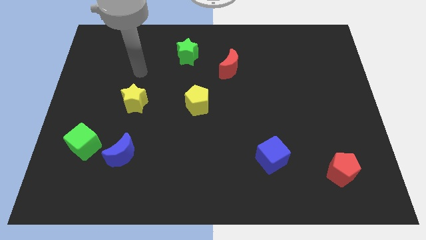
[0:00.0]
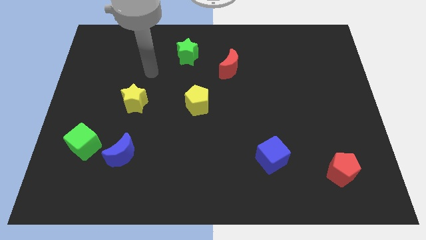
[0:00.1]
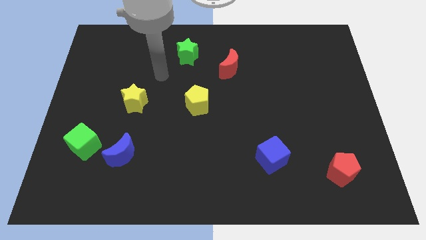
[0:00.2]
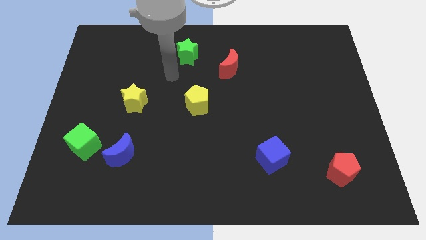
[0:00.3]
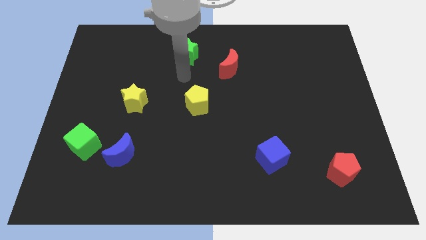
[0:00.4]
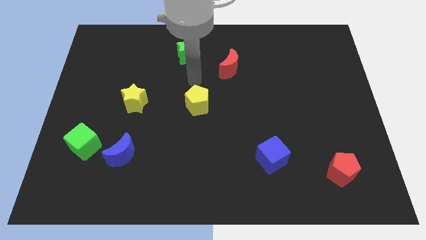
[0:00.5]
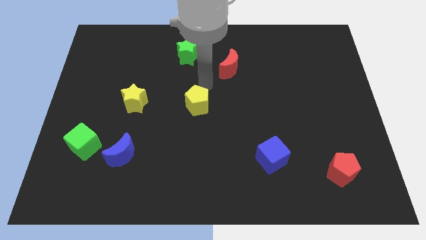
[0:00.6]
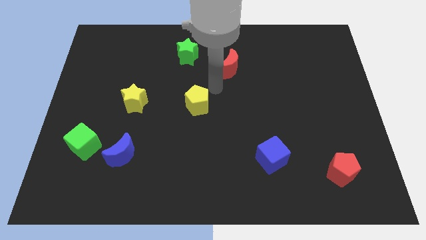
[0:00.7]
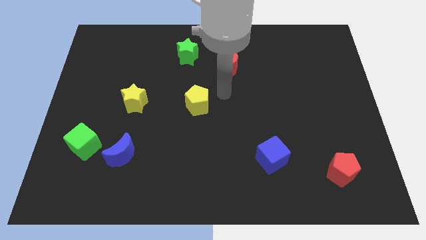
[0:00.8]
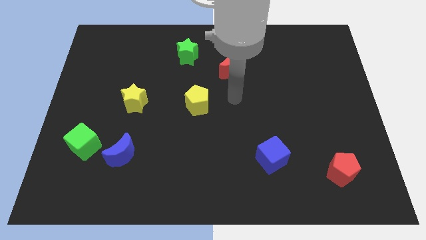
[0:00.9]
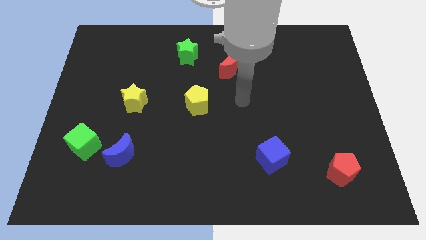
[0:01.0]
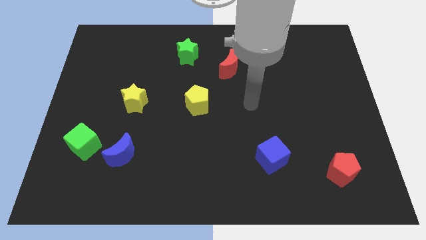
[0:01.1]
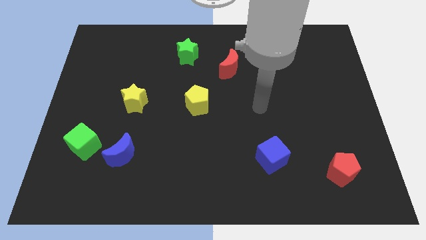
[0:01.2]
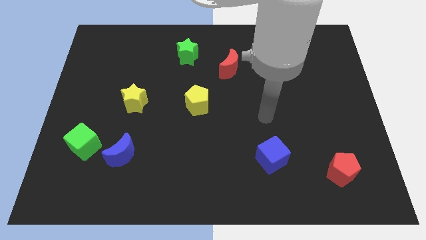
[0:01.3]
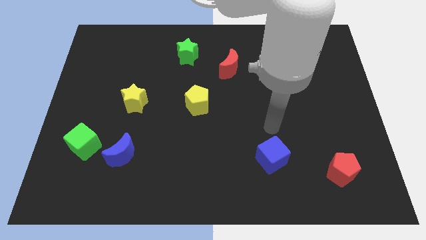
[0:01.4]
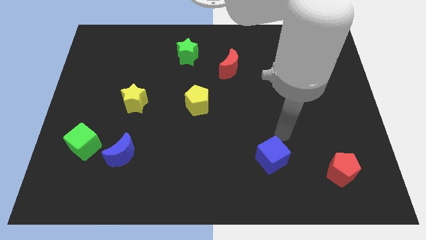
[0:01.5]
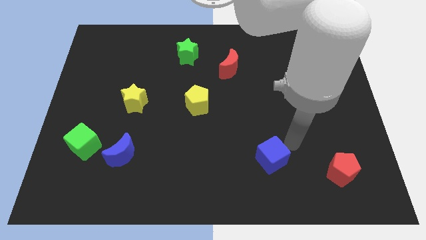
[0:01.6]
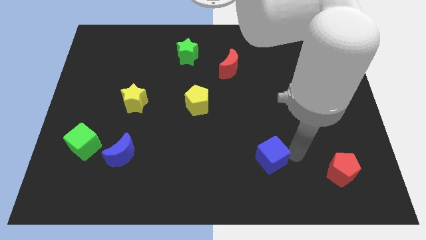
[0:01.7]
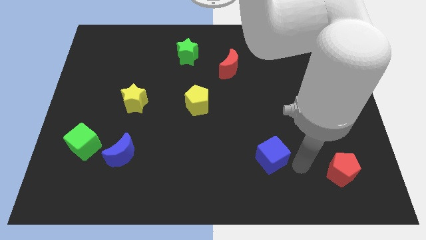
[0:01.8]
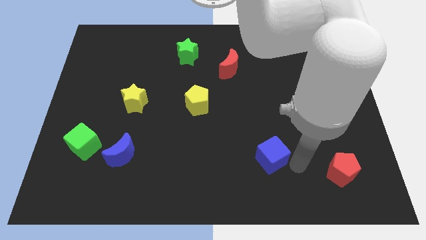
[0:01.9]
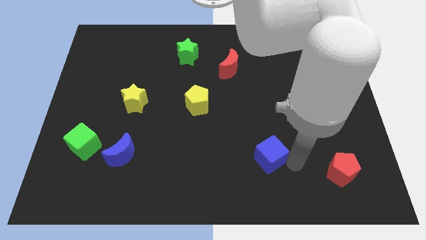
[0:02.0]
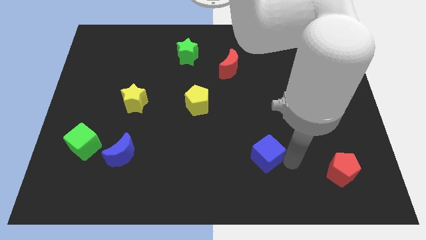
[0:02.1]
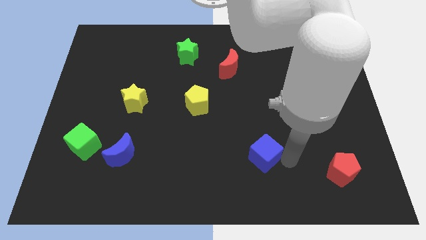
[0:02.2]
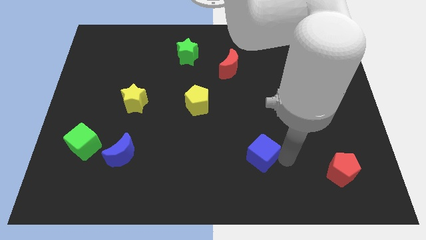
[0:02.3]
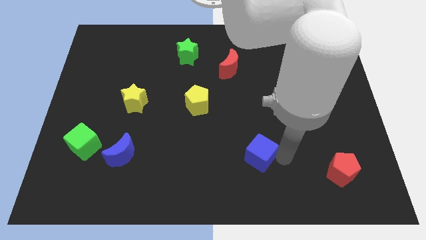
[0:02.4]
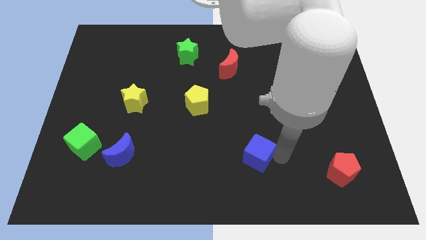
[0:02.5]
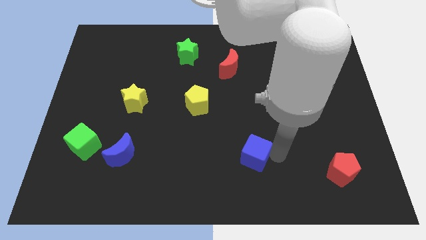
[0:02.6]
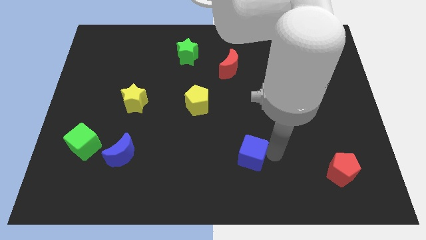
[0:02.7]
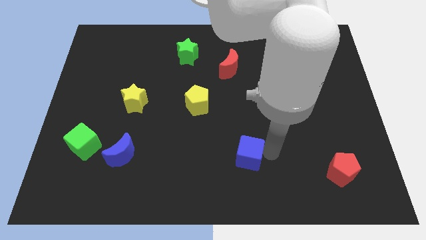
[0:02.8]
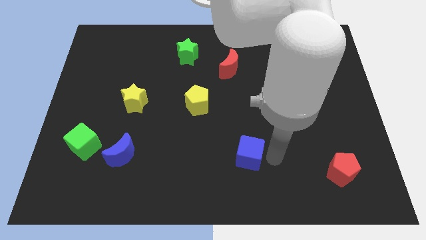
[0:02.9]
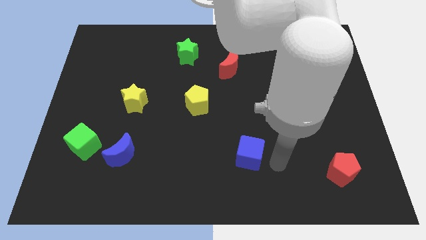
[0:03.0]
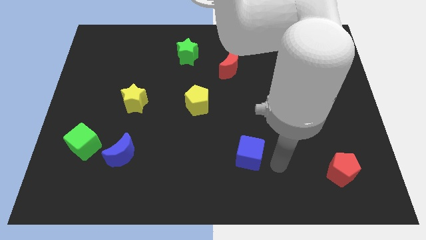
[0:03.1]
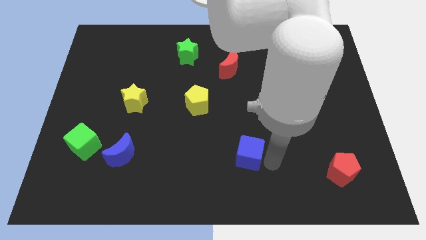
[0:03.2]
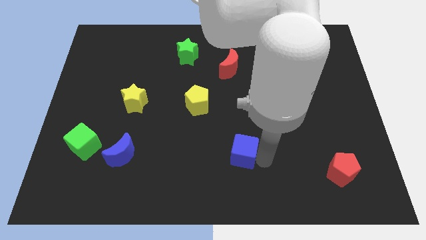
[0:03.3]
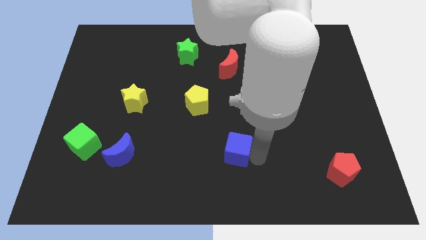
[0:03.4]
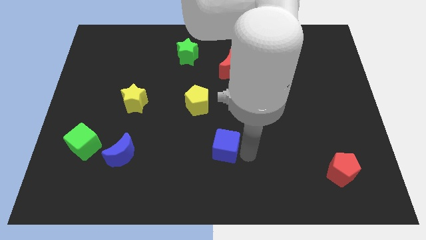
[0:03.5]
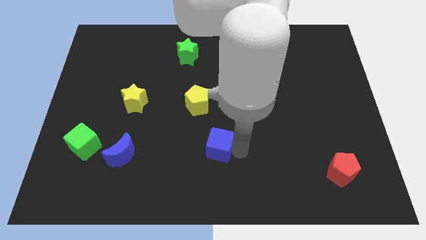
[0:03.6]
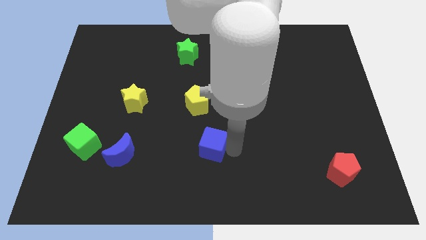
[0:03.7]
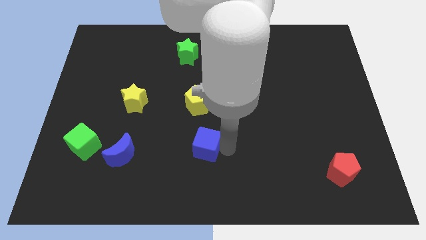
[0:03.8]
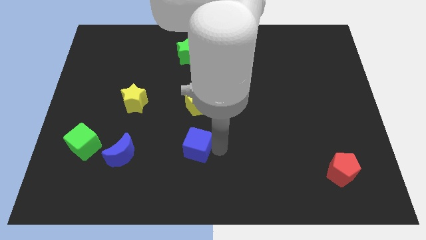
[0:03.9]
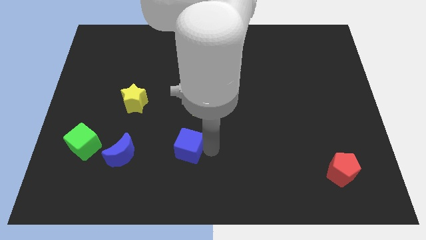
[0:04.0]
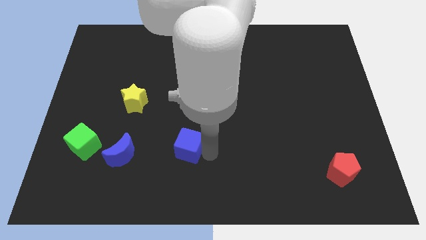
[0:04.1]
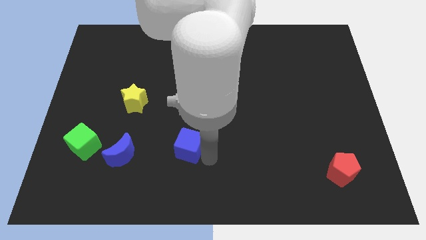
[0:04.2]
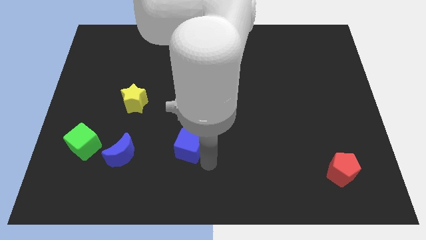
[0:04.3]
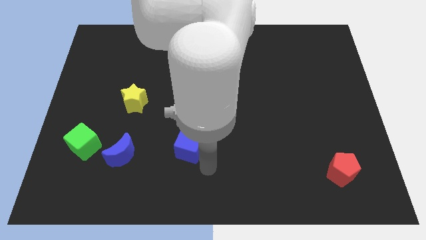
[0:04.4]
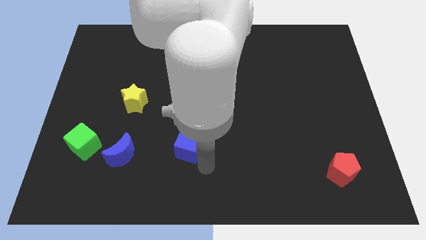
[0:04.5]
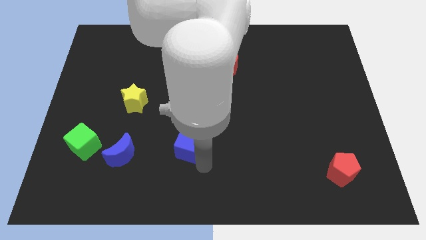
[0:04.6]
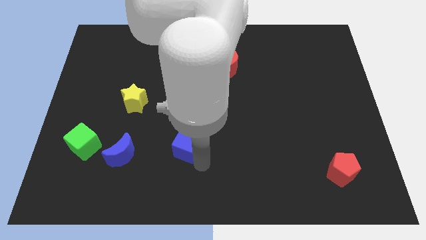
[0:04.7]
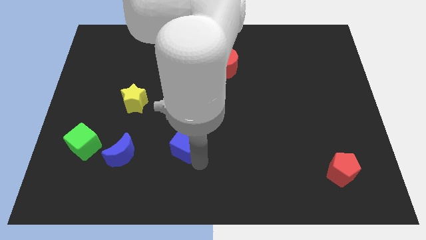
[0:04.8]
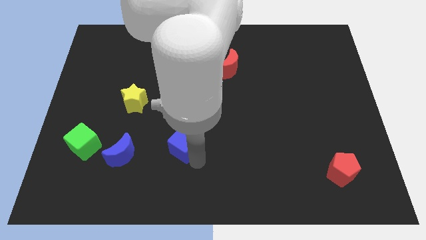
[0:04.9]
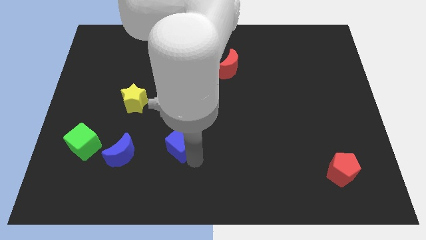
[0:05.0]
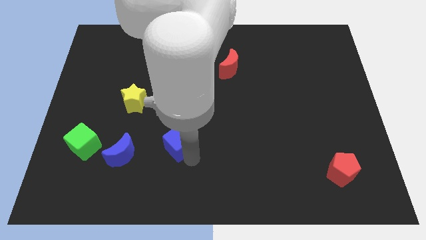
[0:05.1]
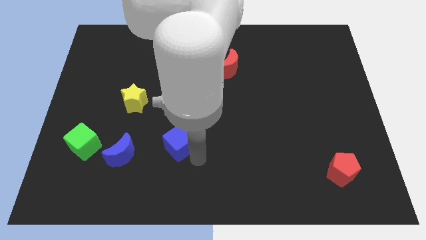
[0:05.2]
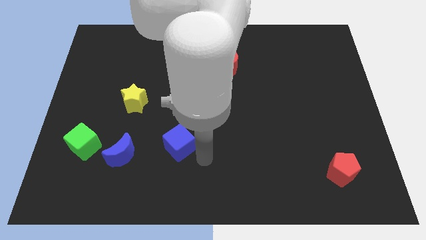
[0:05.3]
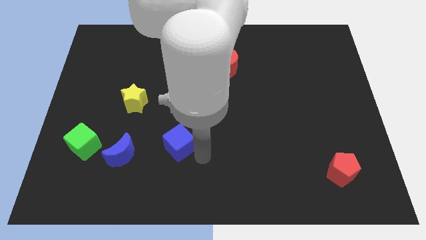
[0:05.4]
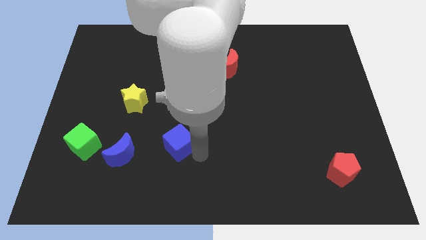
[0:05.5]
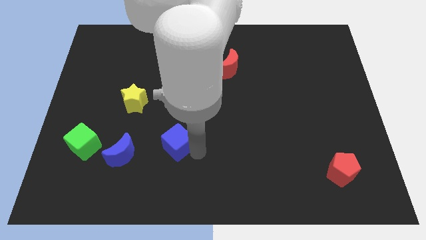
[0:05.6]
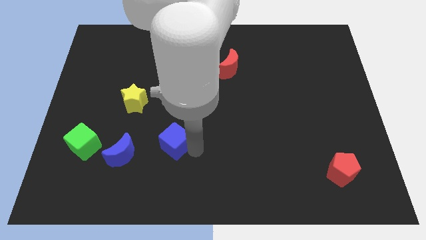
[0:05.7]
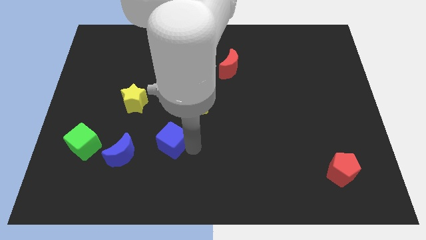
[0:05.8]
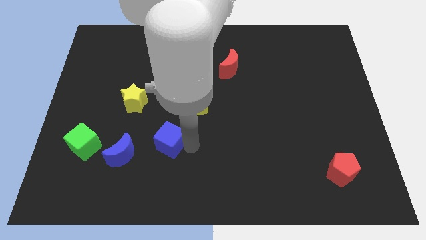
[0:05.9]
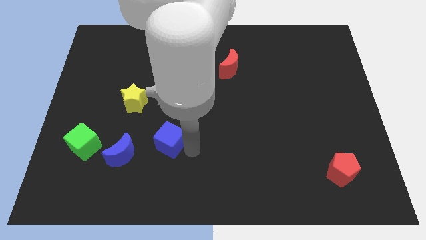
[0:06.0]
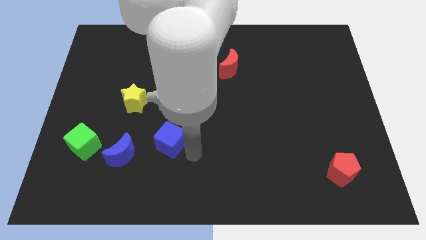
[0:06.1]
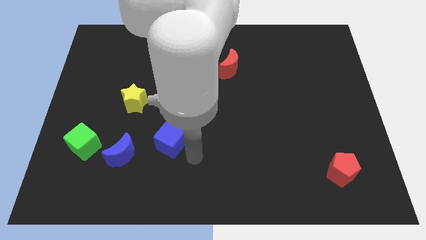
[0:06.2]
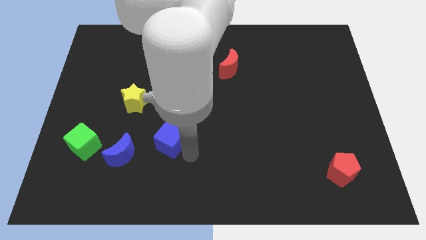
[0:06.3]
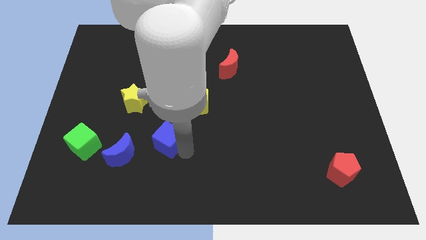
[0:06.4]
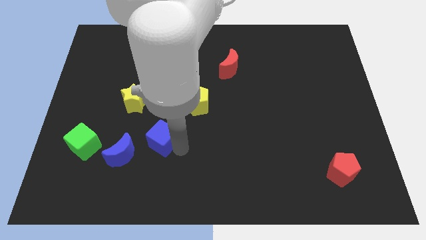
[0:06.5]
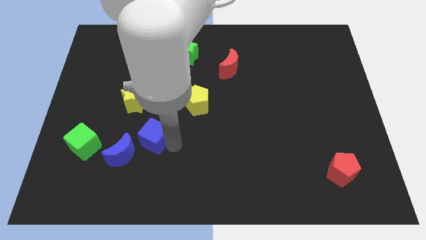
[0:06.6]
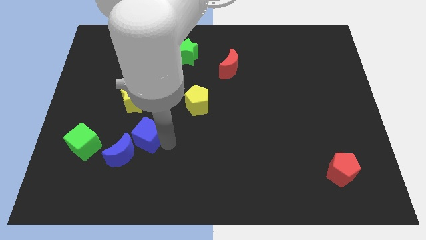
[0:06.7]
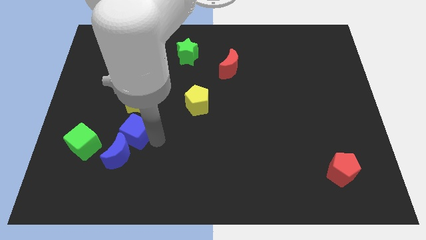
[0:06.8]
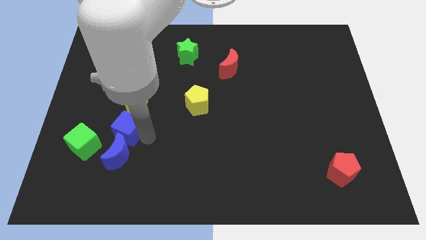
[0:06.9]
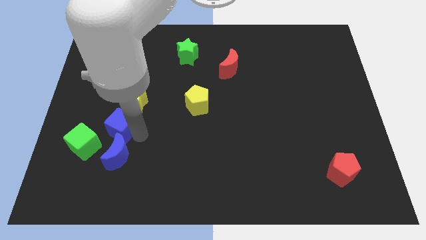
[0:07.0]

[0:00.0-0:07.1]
move the blue cube diagonally down and to the left of the yellow star
